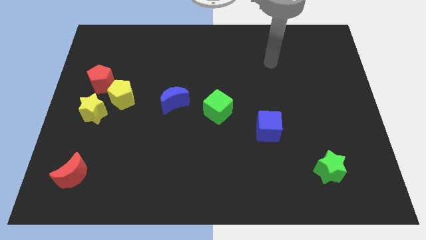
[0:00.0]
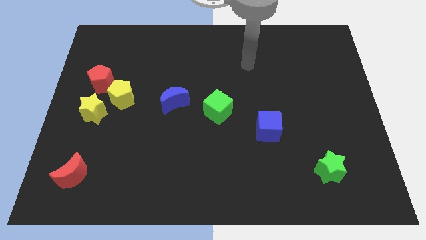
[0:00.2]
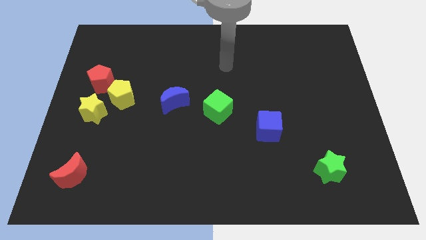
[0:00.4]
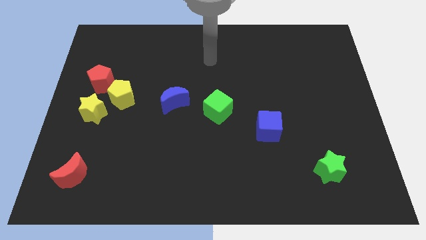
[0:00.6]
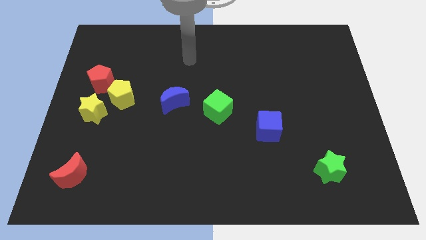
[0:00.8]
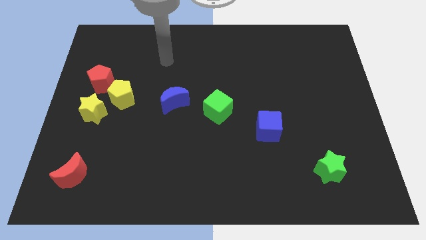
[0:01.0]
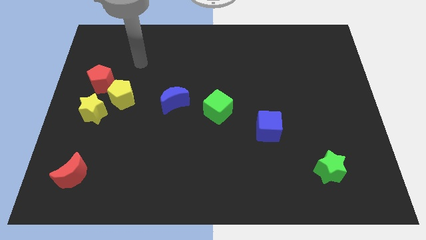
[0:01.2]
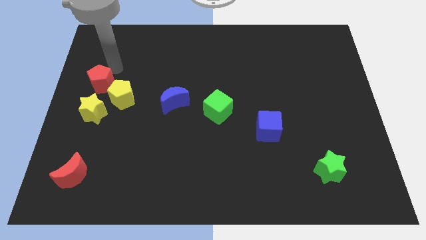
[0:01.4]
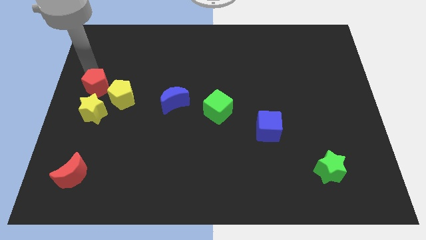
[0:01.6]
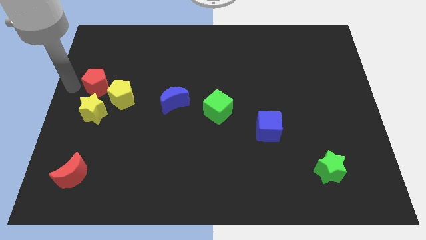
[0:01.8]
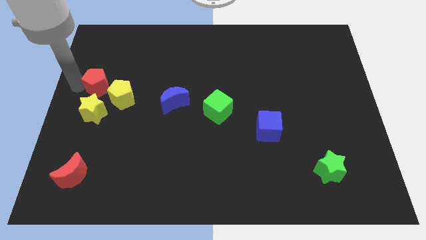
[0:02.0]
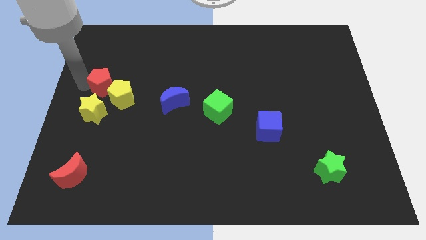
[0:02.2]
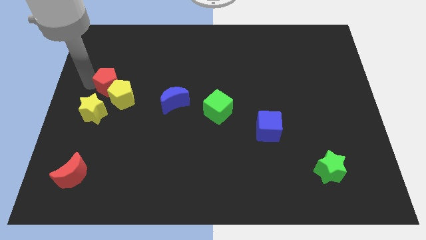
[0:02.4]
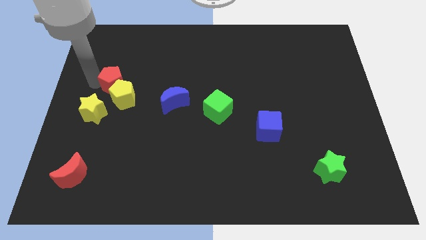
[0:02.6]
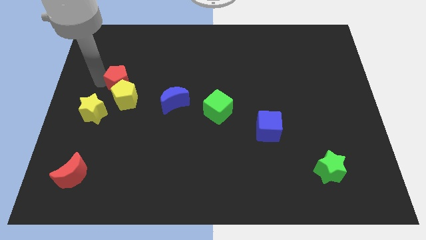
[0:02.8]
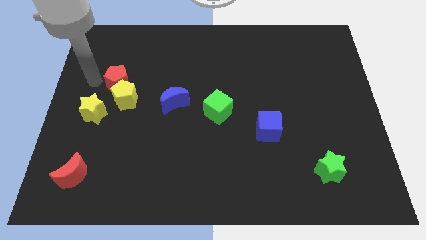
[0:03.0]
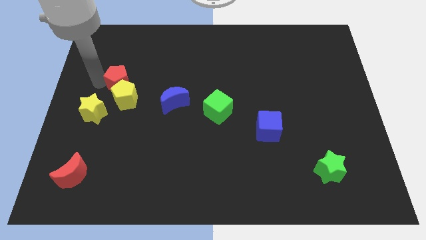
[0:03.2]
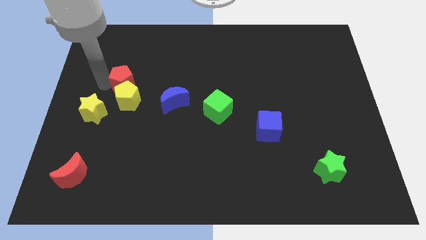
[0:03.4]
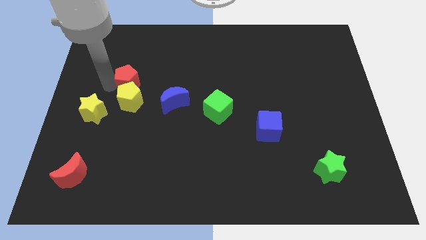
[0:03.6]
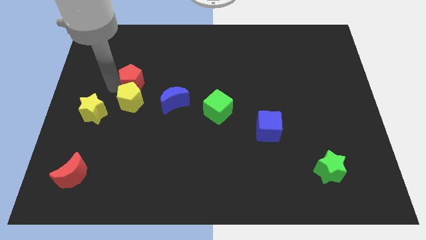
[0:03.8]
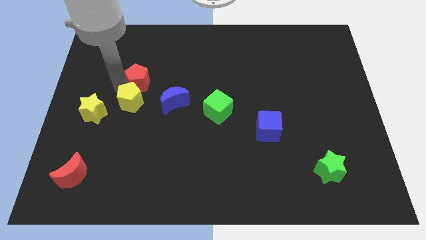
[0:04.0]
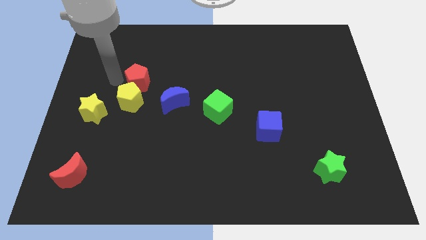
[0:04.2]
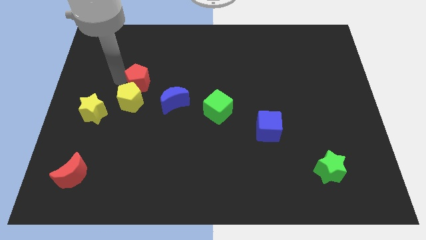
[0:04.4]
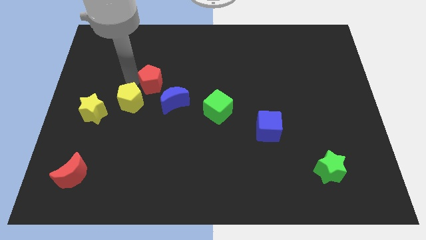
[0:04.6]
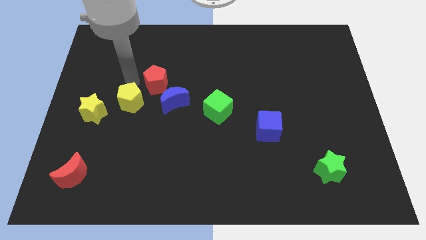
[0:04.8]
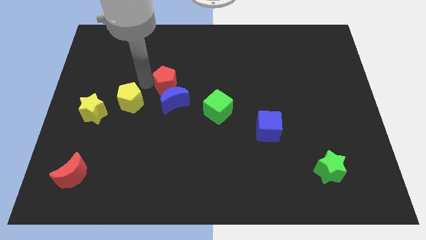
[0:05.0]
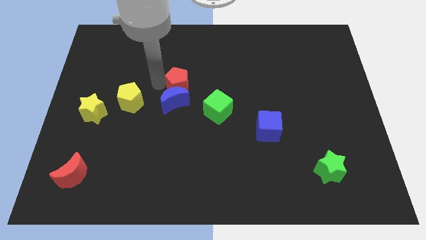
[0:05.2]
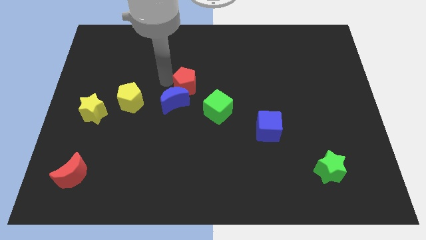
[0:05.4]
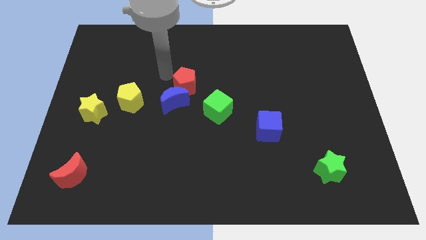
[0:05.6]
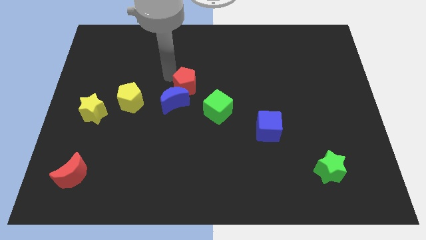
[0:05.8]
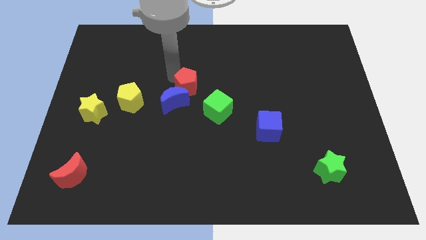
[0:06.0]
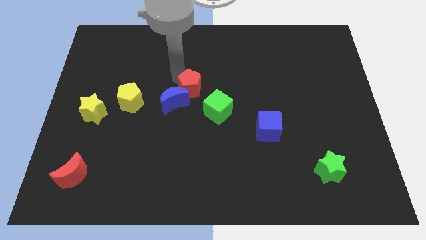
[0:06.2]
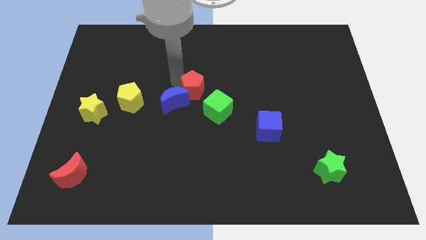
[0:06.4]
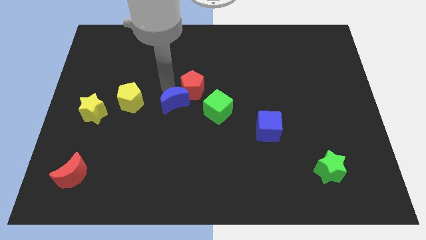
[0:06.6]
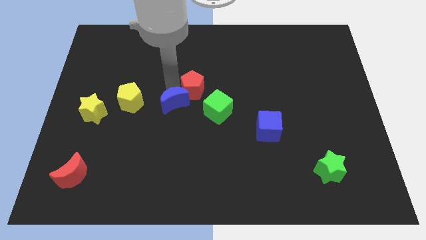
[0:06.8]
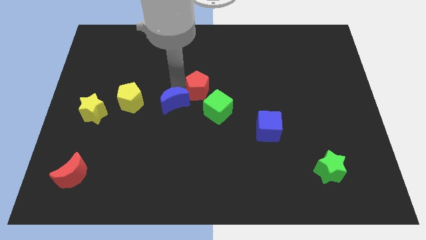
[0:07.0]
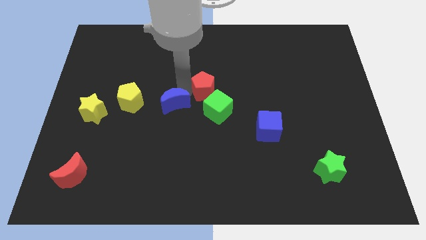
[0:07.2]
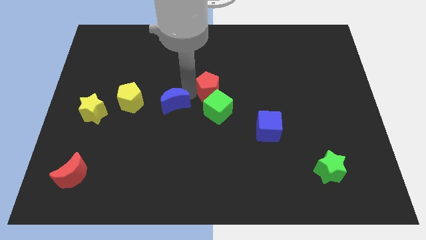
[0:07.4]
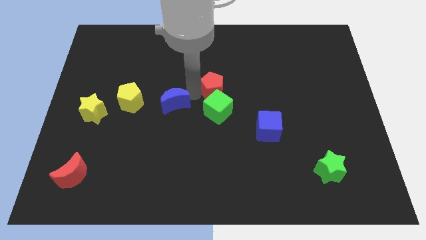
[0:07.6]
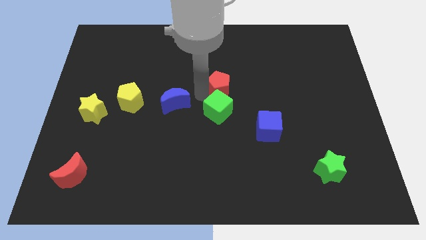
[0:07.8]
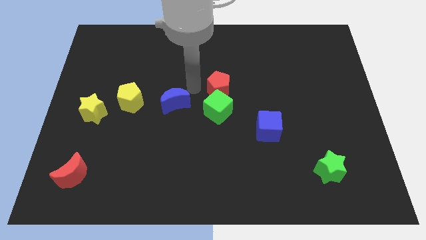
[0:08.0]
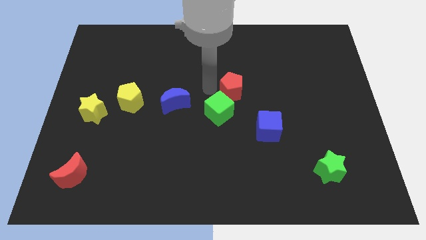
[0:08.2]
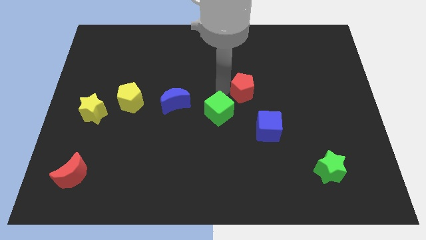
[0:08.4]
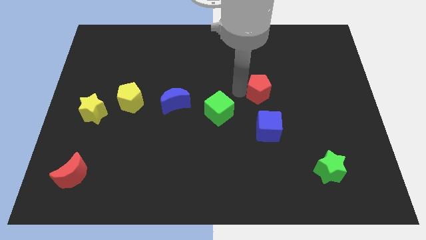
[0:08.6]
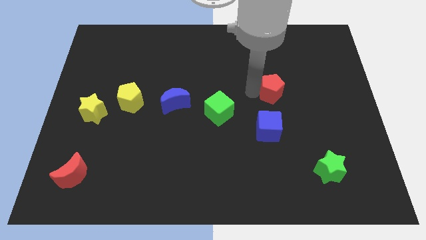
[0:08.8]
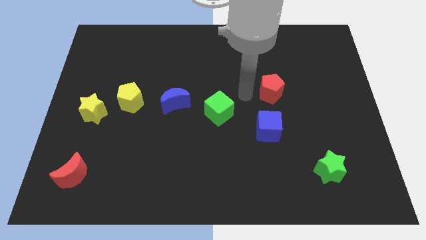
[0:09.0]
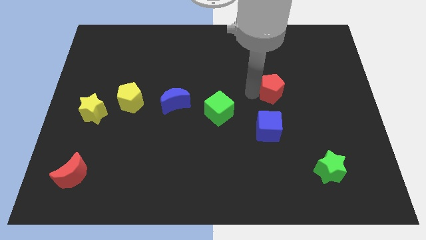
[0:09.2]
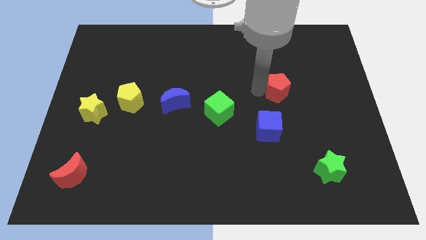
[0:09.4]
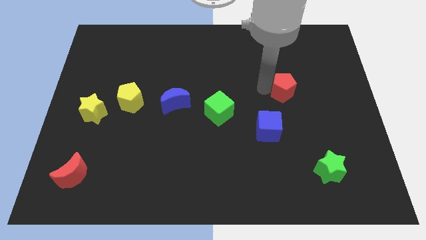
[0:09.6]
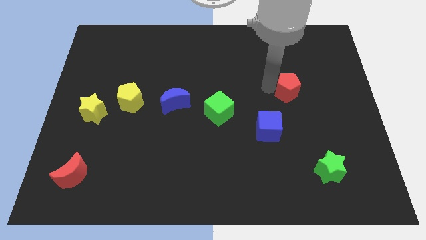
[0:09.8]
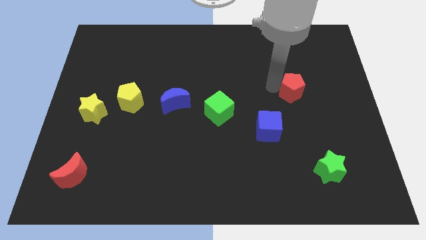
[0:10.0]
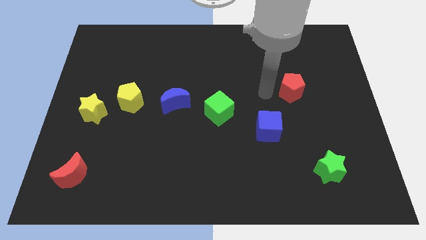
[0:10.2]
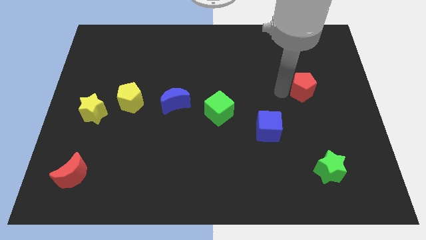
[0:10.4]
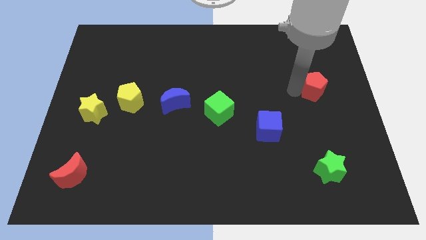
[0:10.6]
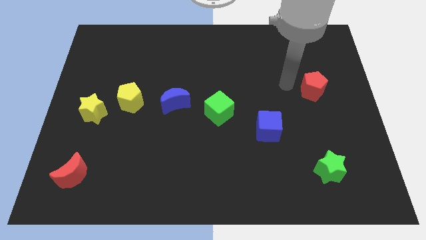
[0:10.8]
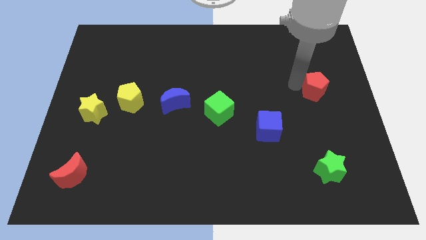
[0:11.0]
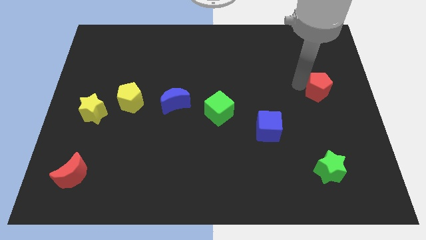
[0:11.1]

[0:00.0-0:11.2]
slide the red pentagon to the right side

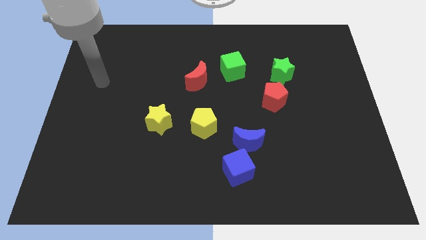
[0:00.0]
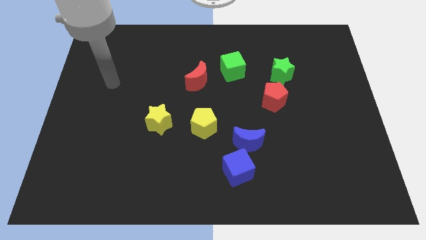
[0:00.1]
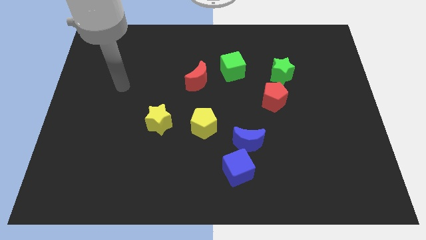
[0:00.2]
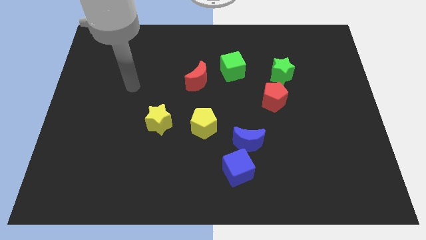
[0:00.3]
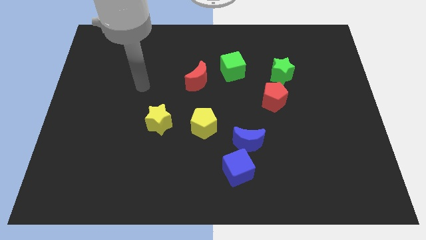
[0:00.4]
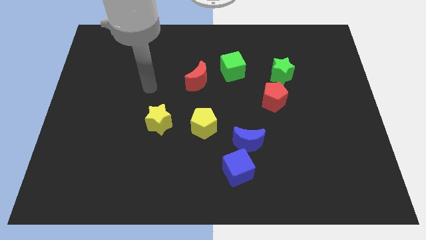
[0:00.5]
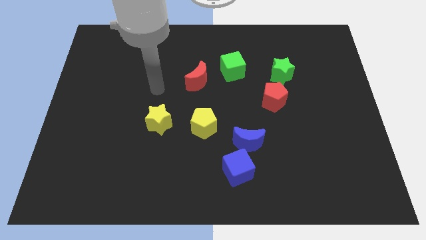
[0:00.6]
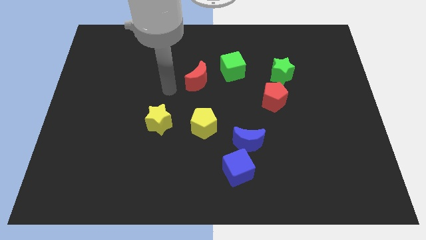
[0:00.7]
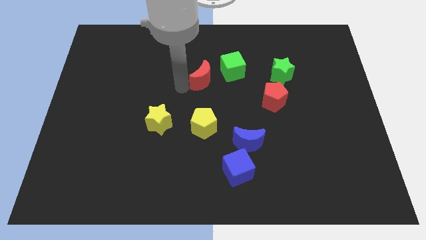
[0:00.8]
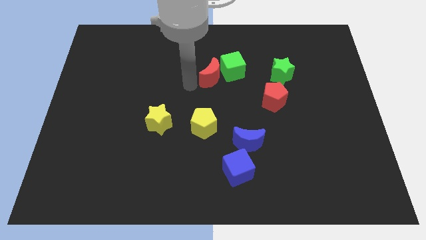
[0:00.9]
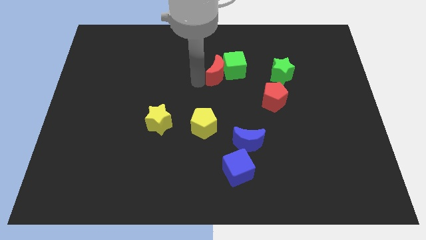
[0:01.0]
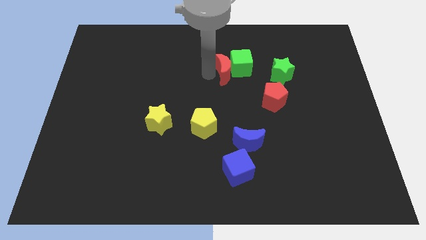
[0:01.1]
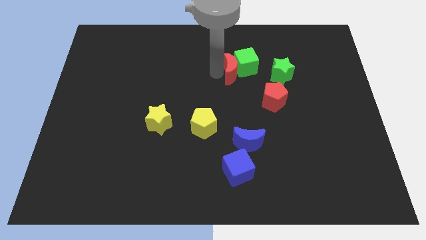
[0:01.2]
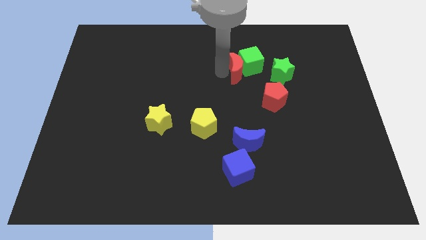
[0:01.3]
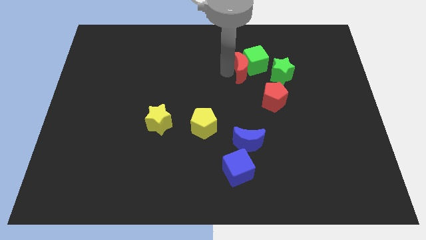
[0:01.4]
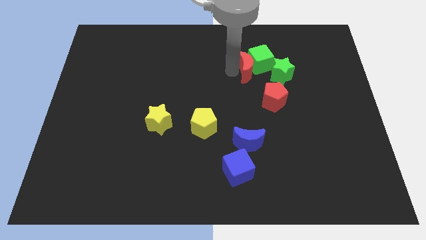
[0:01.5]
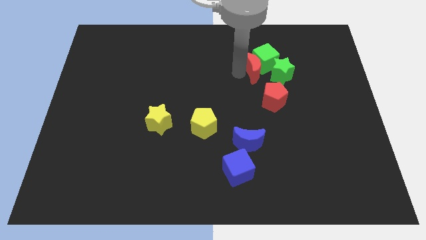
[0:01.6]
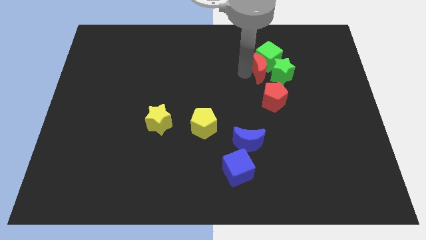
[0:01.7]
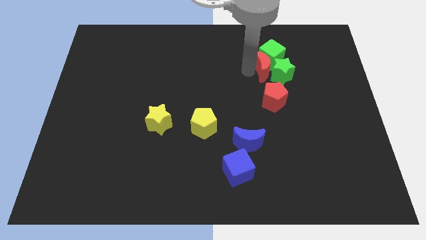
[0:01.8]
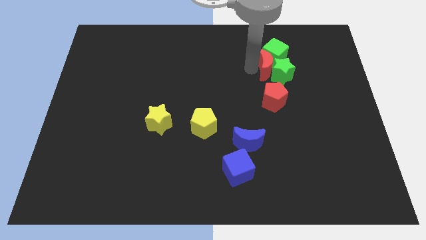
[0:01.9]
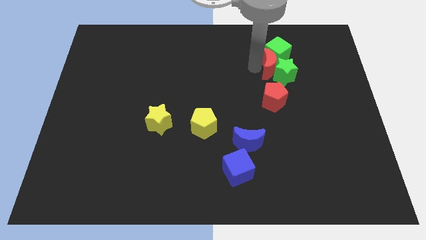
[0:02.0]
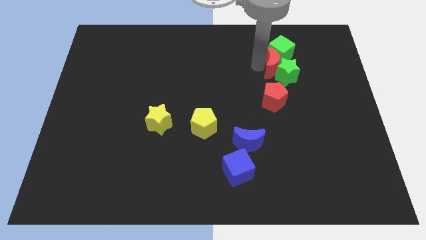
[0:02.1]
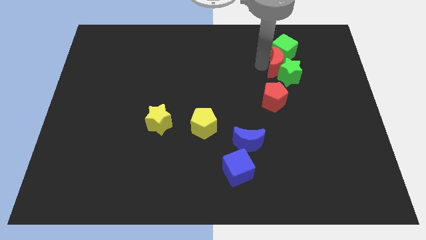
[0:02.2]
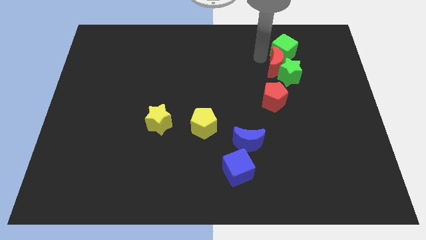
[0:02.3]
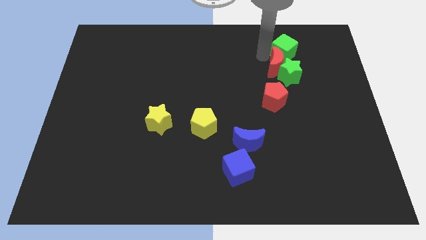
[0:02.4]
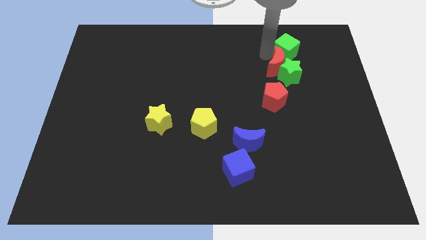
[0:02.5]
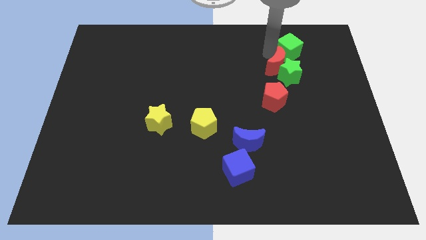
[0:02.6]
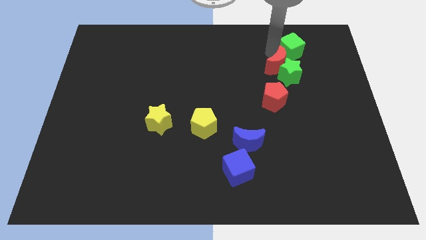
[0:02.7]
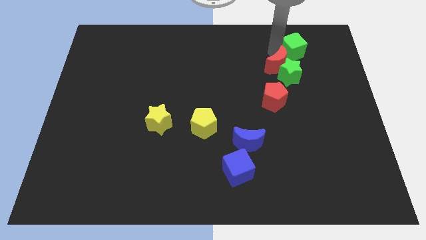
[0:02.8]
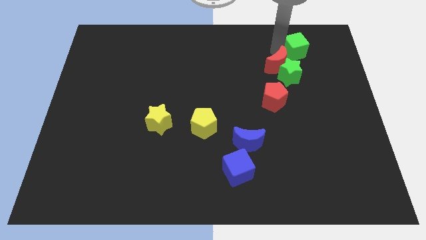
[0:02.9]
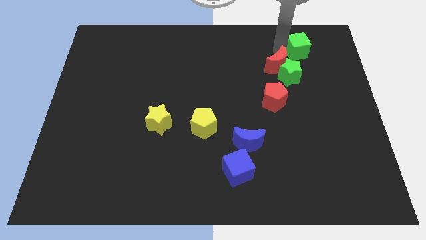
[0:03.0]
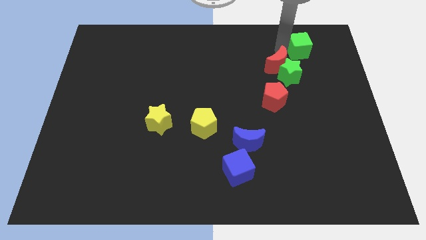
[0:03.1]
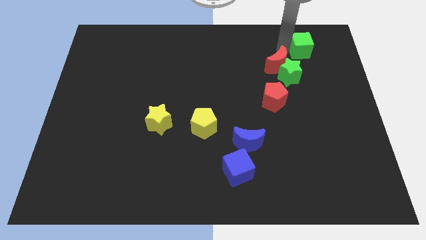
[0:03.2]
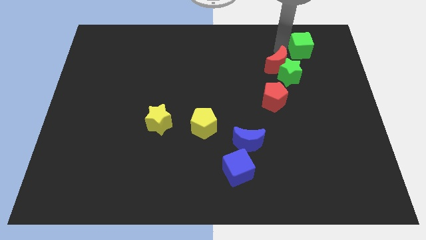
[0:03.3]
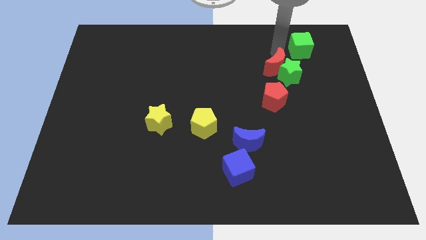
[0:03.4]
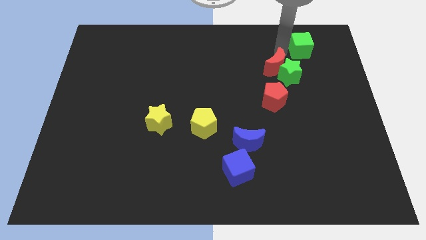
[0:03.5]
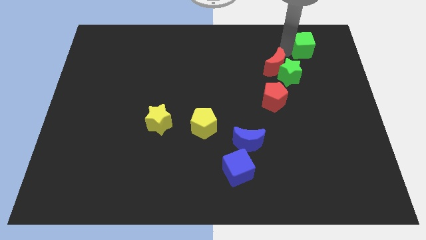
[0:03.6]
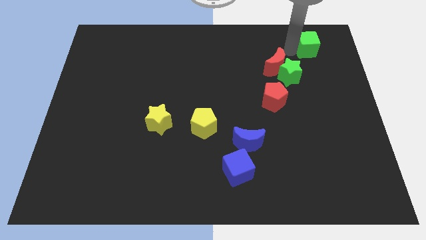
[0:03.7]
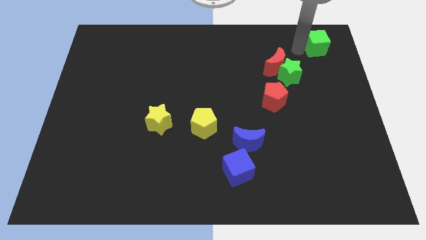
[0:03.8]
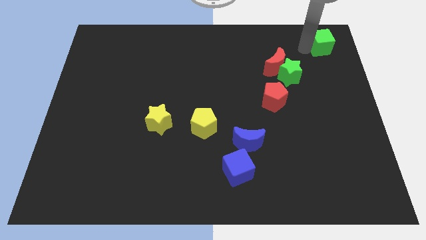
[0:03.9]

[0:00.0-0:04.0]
push the green cube to the upper right corner
